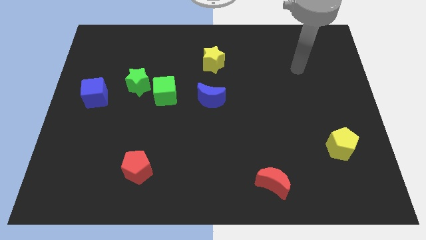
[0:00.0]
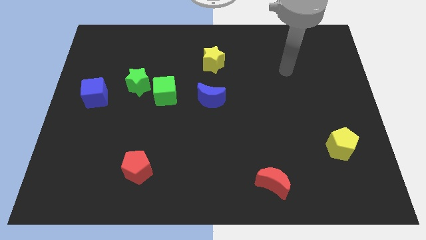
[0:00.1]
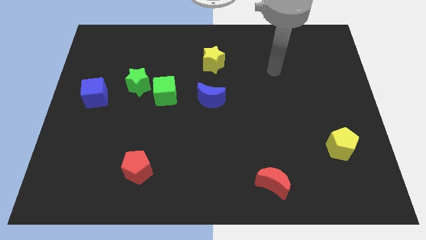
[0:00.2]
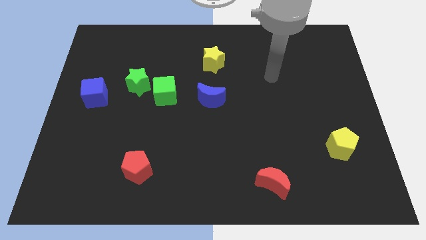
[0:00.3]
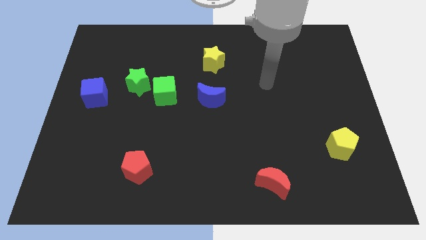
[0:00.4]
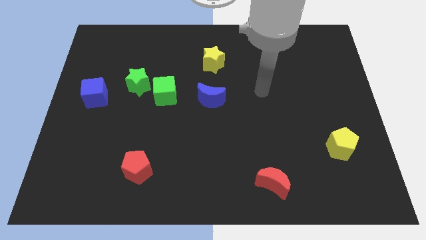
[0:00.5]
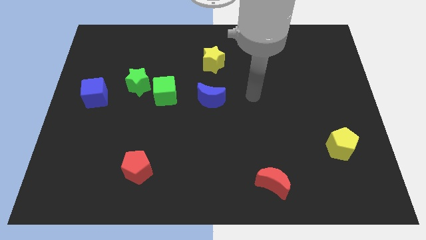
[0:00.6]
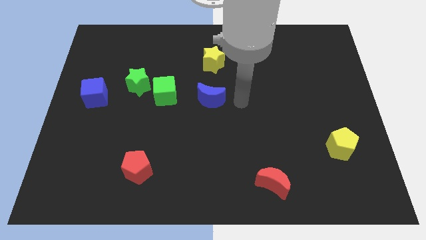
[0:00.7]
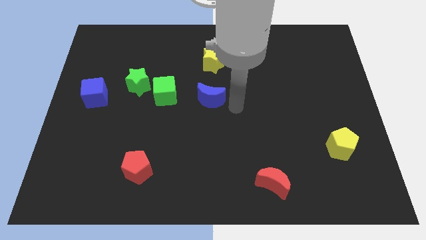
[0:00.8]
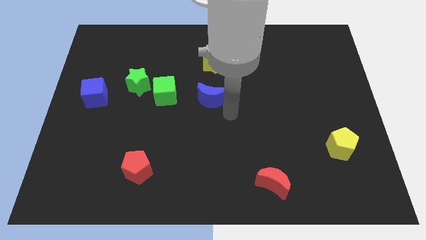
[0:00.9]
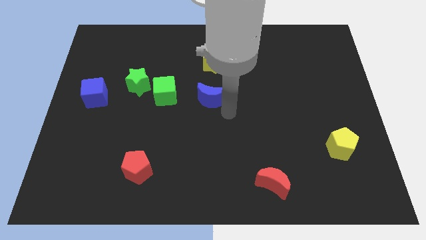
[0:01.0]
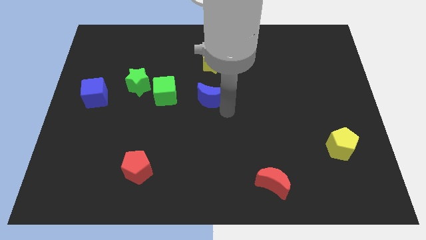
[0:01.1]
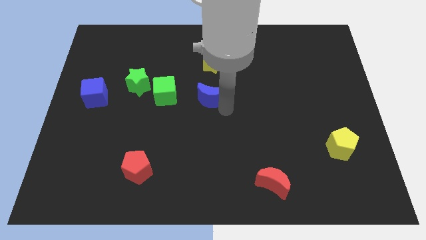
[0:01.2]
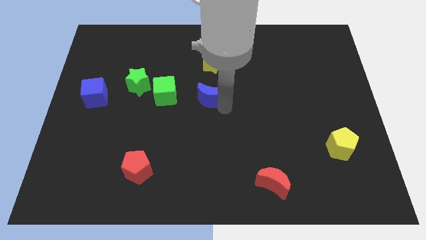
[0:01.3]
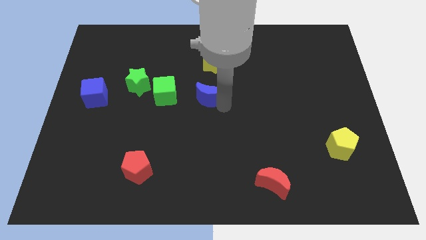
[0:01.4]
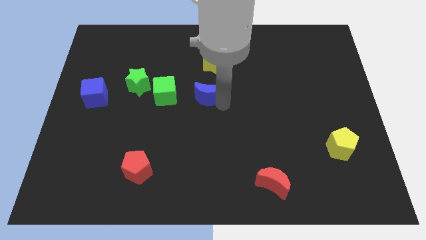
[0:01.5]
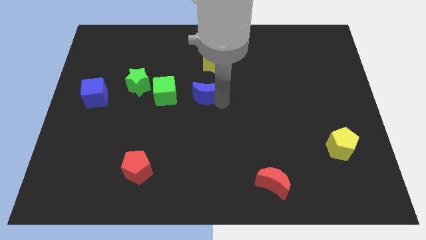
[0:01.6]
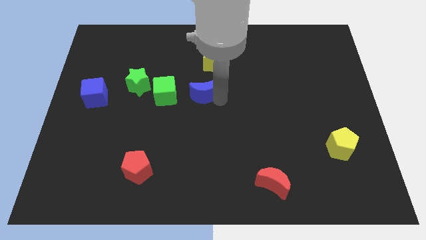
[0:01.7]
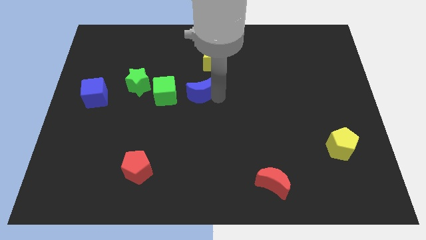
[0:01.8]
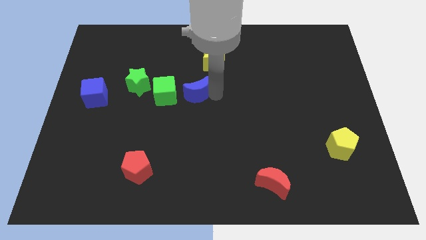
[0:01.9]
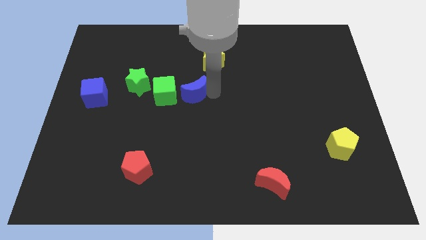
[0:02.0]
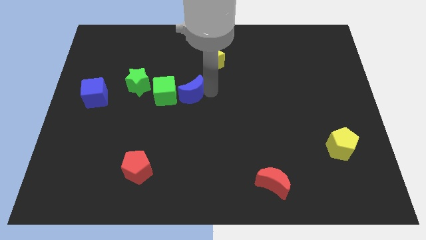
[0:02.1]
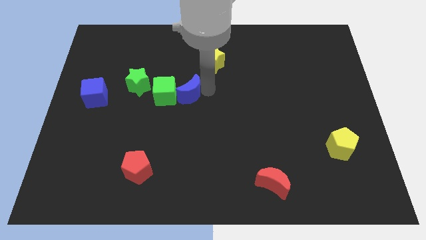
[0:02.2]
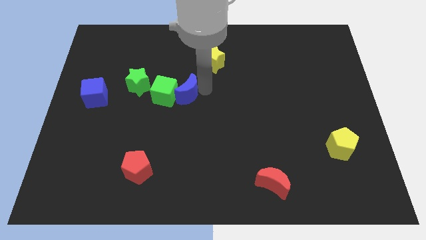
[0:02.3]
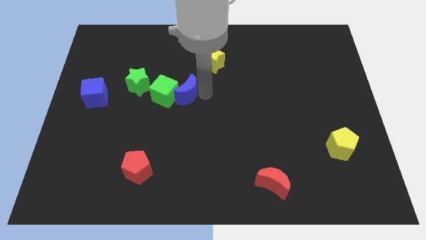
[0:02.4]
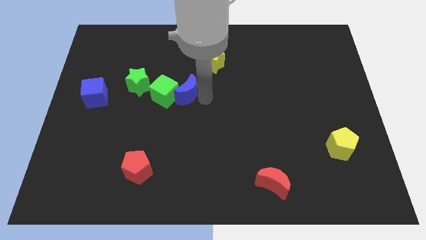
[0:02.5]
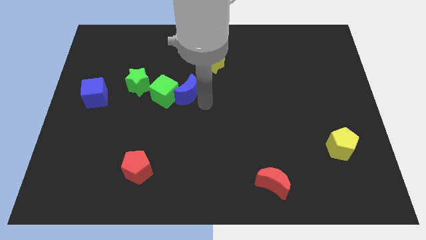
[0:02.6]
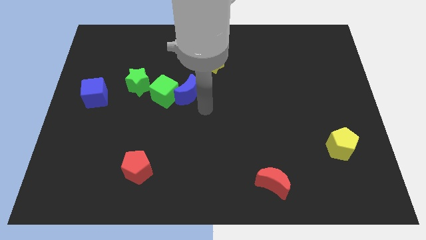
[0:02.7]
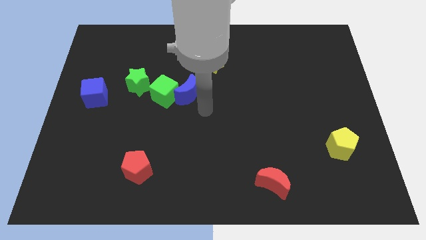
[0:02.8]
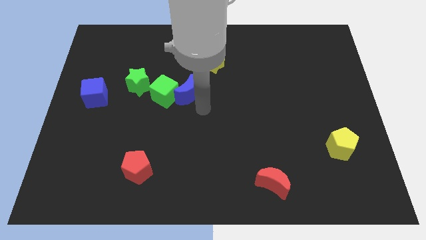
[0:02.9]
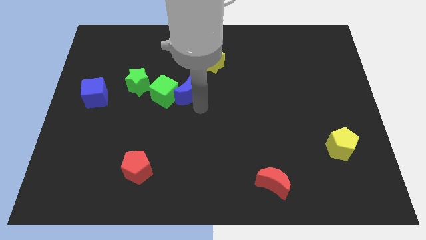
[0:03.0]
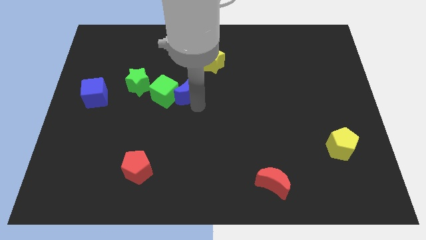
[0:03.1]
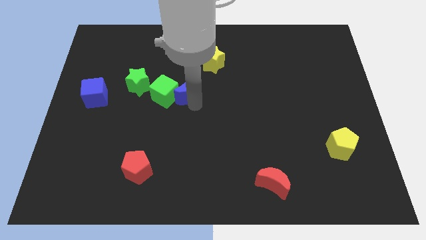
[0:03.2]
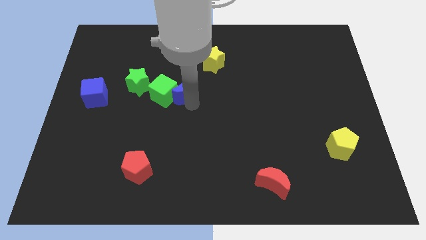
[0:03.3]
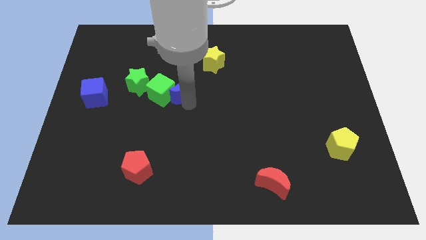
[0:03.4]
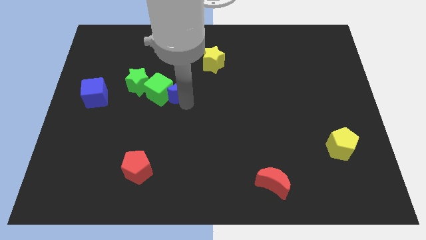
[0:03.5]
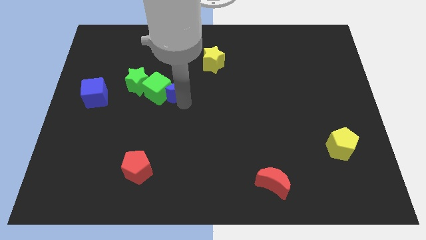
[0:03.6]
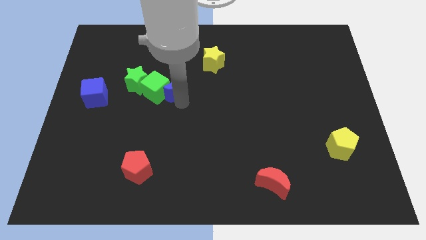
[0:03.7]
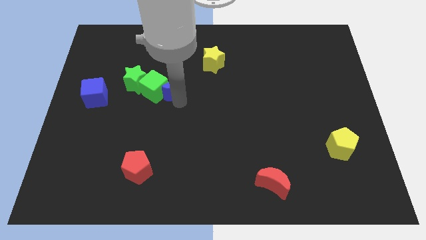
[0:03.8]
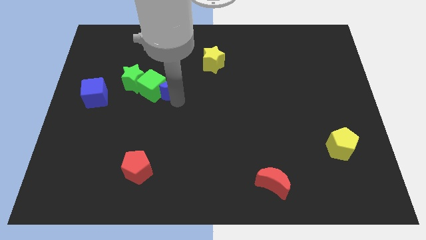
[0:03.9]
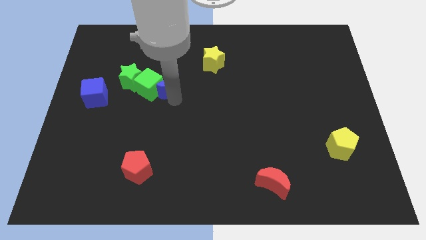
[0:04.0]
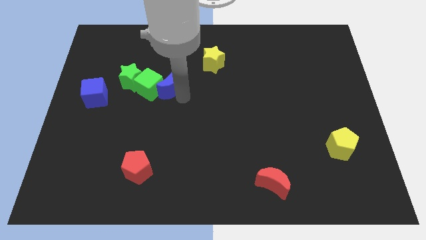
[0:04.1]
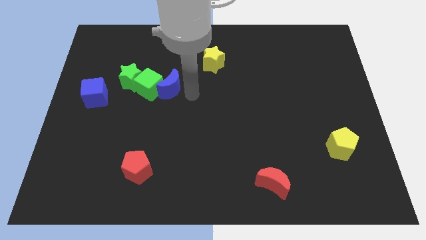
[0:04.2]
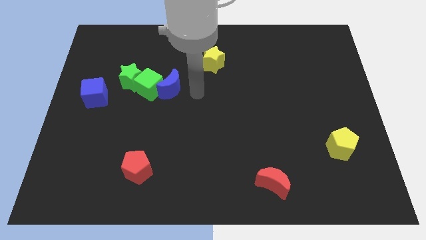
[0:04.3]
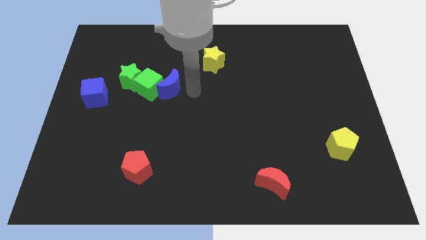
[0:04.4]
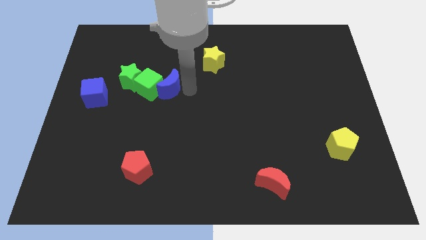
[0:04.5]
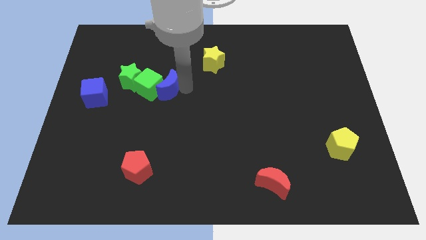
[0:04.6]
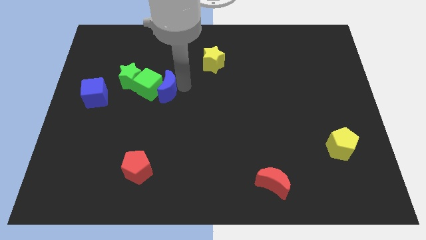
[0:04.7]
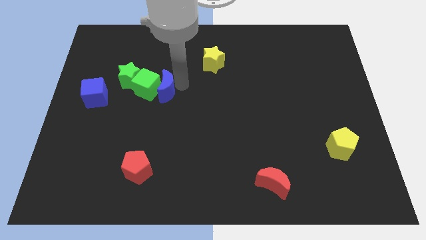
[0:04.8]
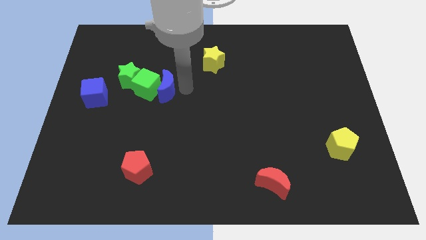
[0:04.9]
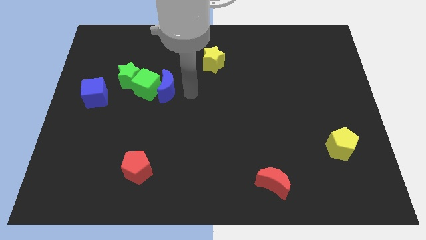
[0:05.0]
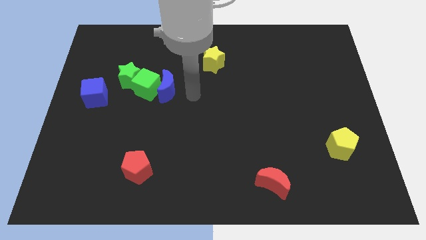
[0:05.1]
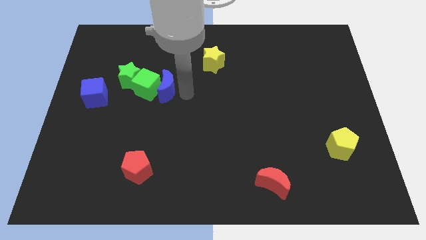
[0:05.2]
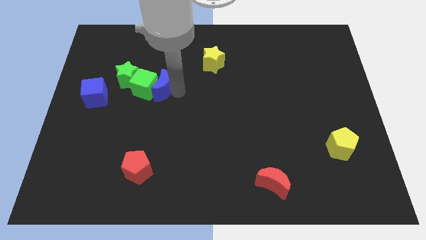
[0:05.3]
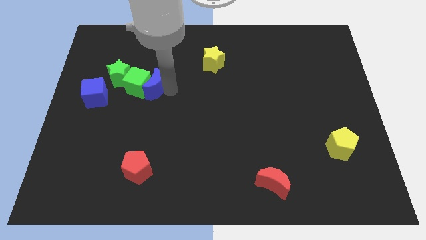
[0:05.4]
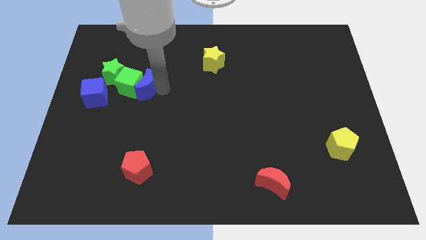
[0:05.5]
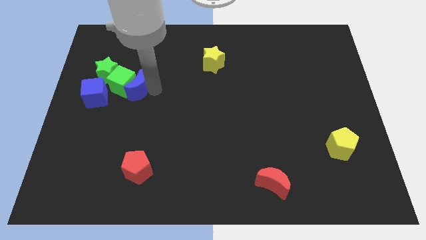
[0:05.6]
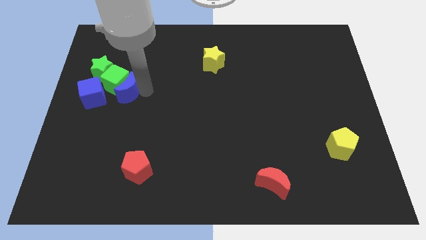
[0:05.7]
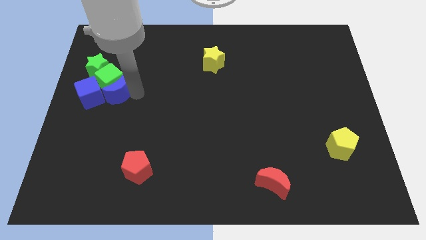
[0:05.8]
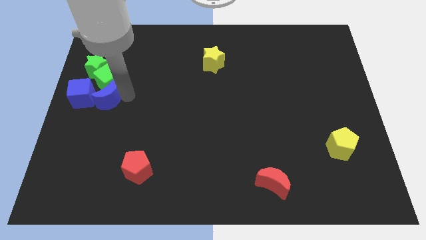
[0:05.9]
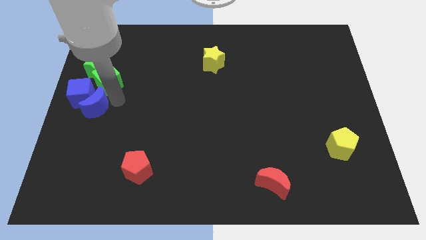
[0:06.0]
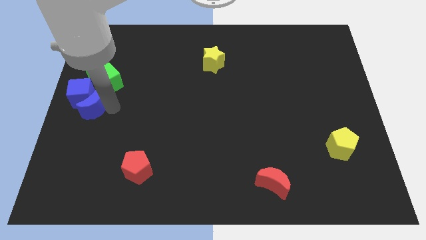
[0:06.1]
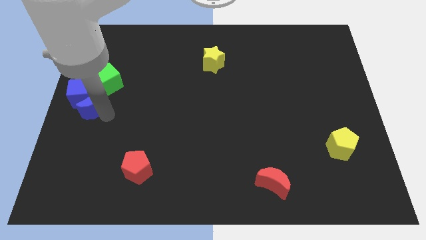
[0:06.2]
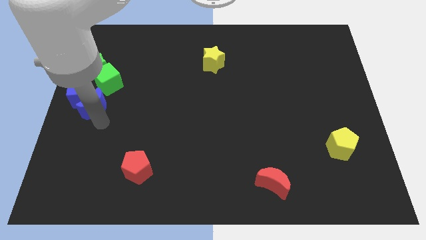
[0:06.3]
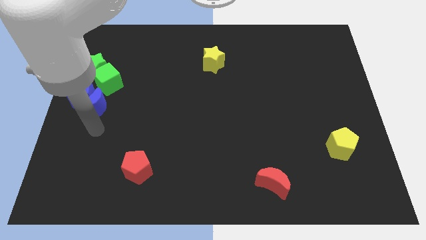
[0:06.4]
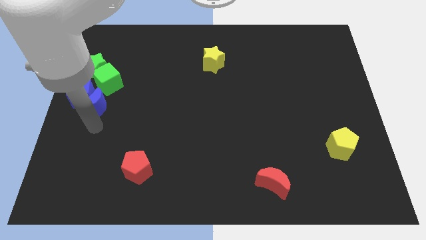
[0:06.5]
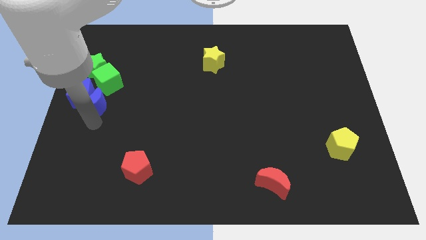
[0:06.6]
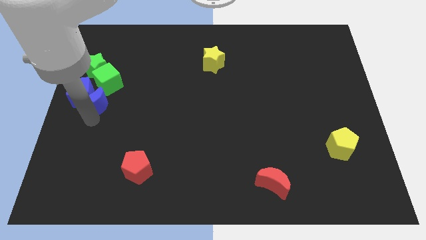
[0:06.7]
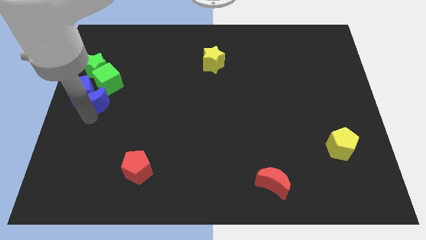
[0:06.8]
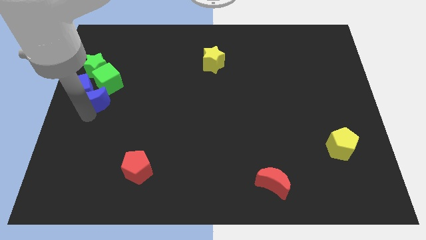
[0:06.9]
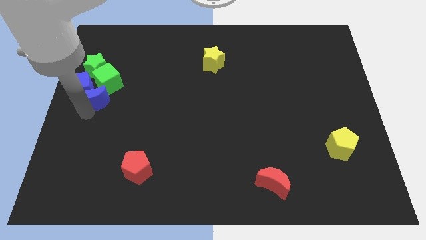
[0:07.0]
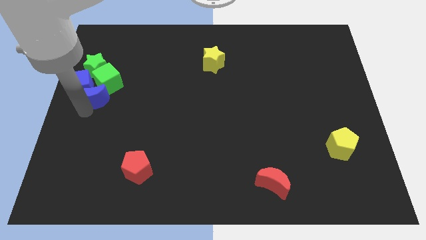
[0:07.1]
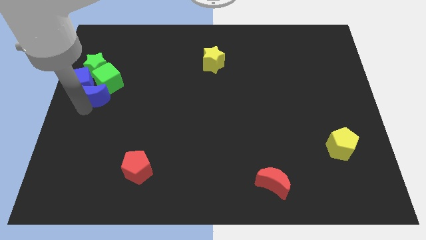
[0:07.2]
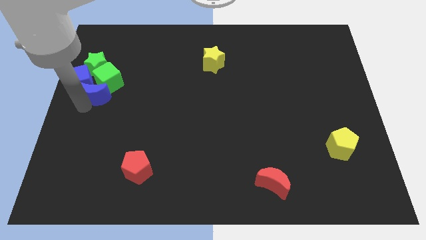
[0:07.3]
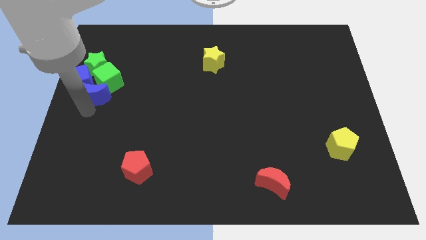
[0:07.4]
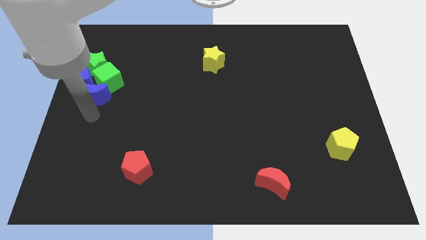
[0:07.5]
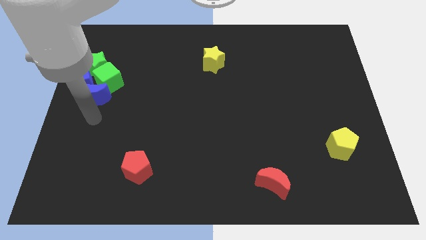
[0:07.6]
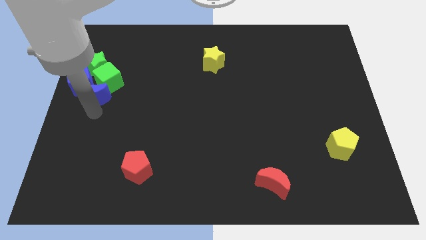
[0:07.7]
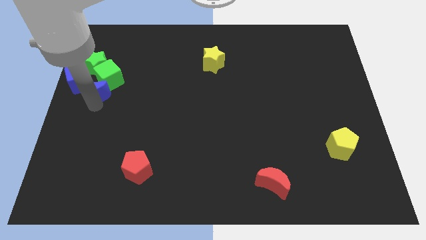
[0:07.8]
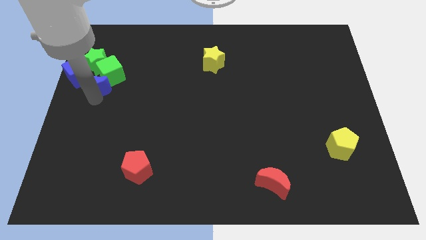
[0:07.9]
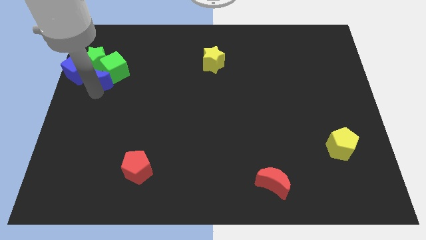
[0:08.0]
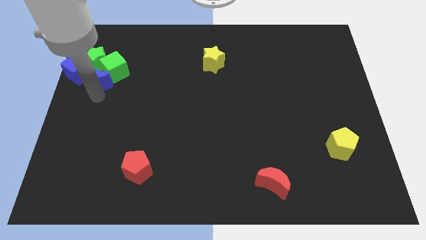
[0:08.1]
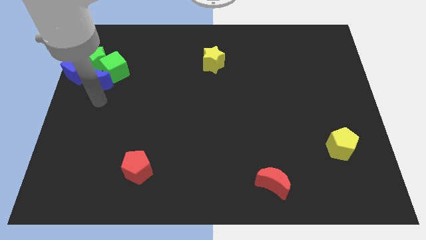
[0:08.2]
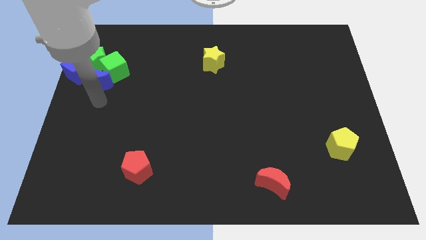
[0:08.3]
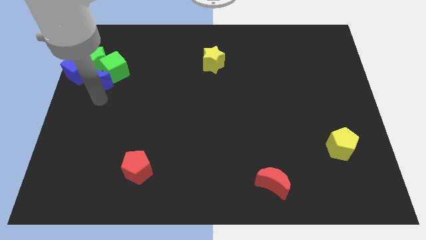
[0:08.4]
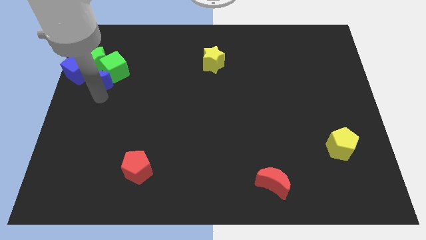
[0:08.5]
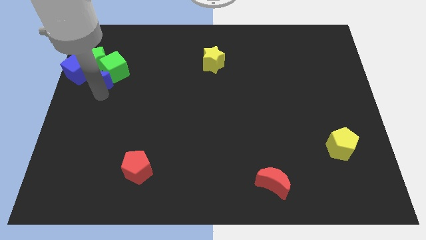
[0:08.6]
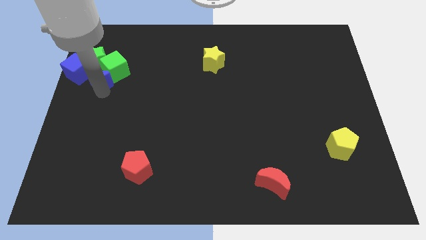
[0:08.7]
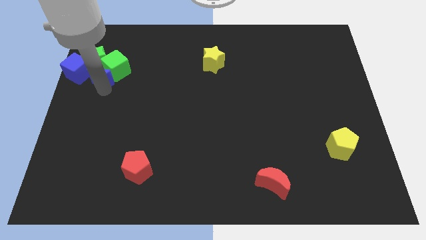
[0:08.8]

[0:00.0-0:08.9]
put the blue moon towards the green star
